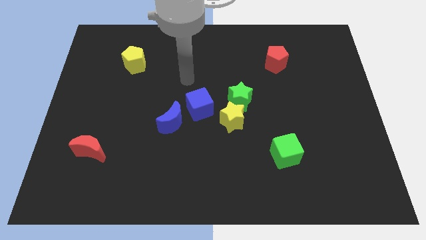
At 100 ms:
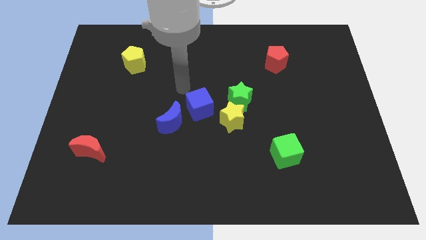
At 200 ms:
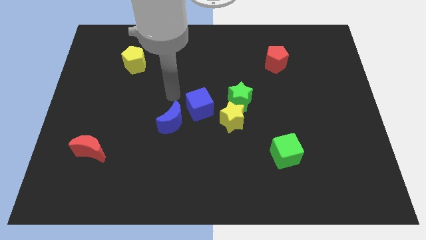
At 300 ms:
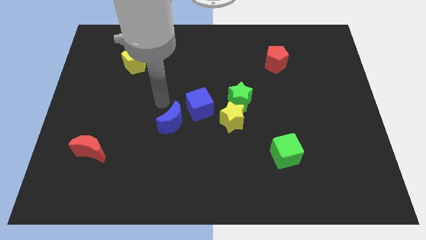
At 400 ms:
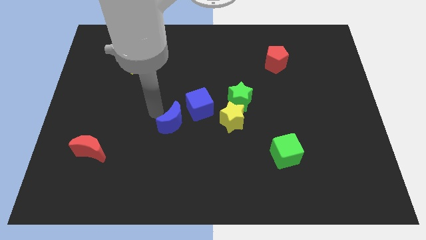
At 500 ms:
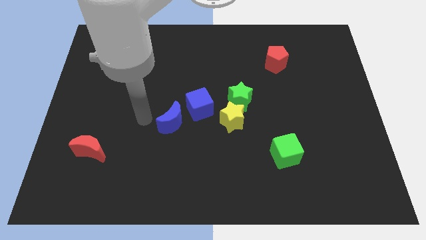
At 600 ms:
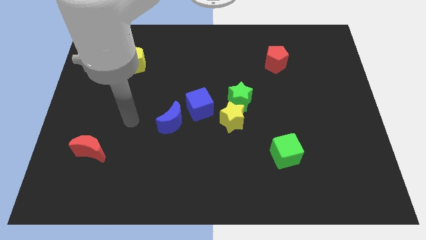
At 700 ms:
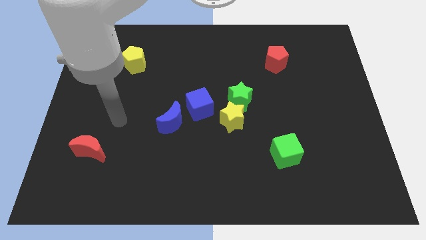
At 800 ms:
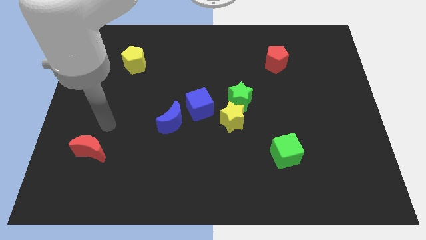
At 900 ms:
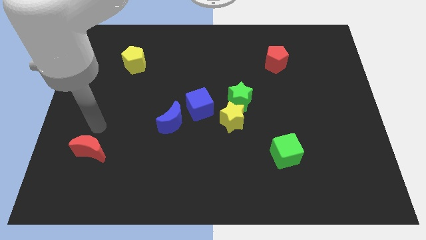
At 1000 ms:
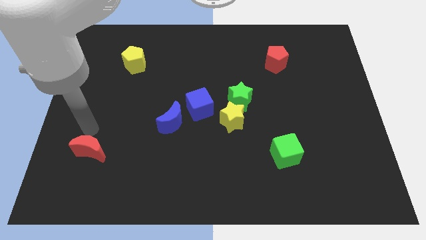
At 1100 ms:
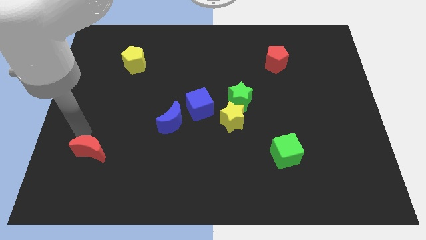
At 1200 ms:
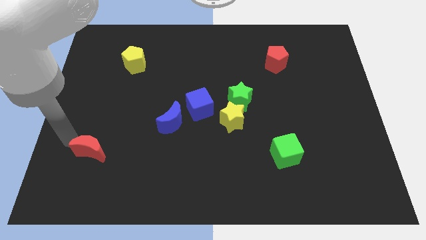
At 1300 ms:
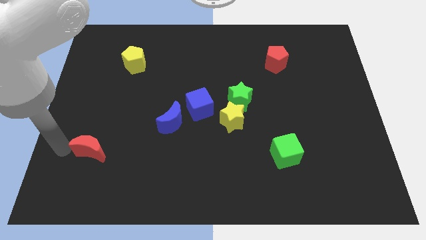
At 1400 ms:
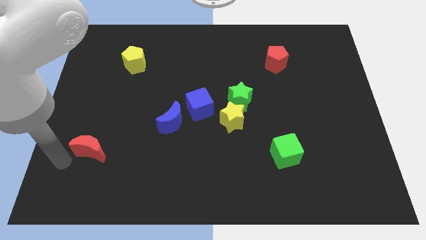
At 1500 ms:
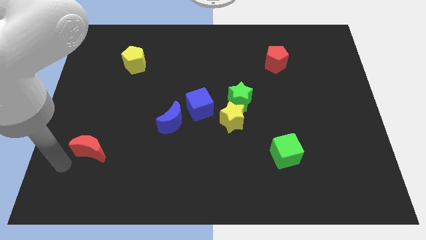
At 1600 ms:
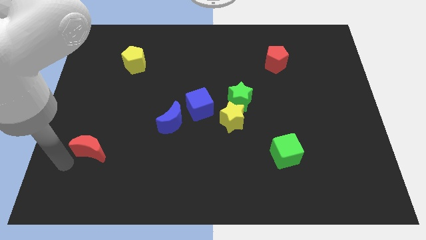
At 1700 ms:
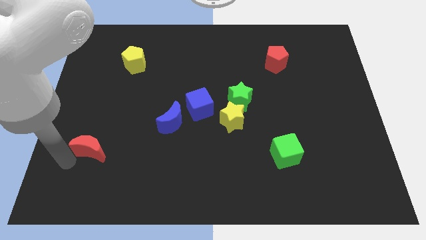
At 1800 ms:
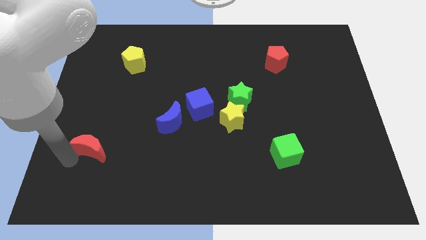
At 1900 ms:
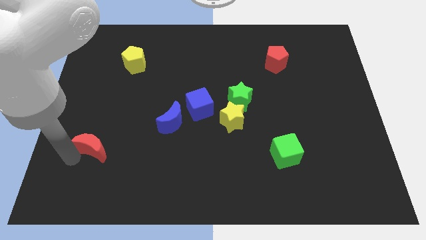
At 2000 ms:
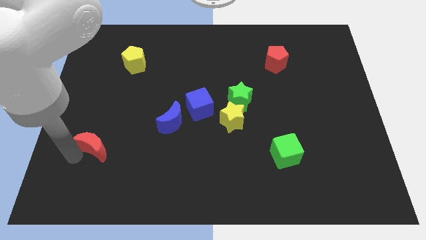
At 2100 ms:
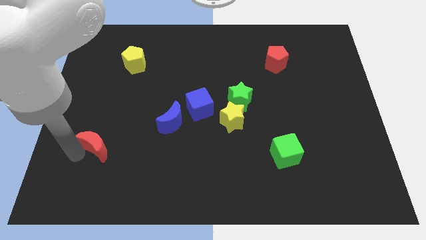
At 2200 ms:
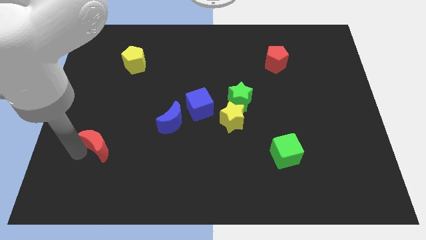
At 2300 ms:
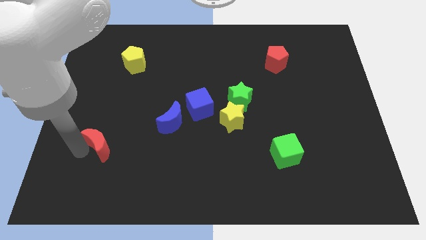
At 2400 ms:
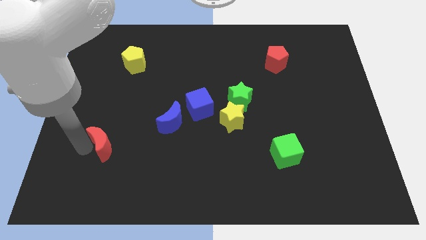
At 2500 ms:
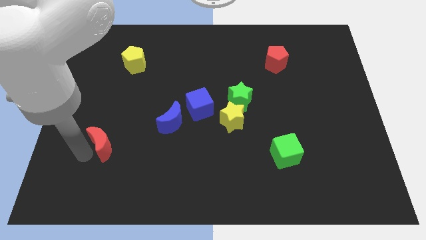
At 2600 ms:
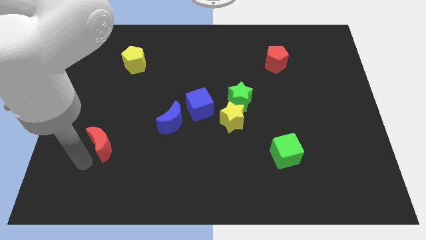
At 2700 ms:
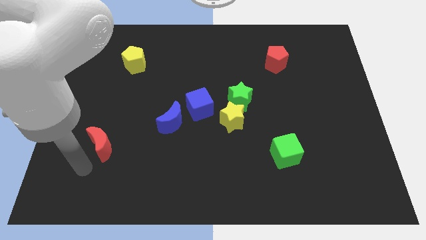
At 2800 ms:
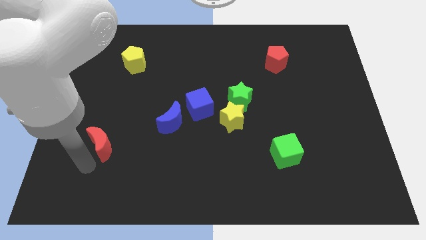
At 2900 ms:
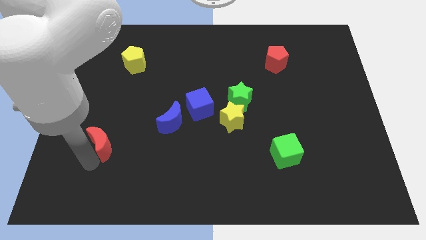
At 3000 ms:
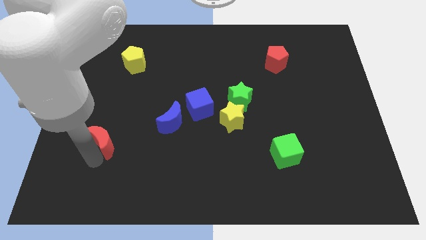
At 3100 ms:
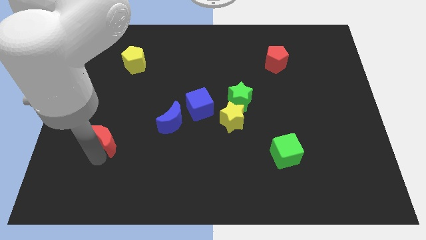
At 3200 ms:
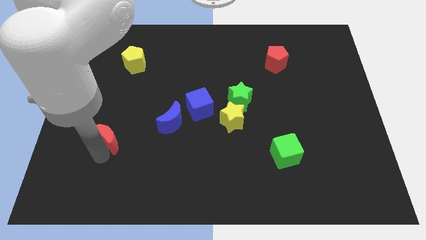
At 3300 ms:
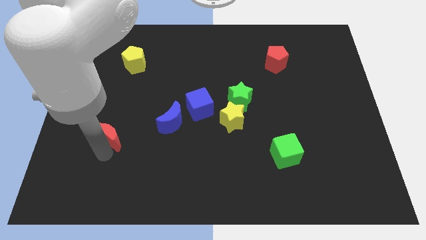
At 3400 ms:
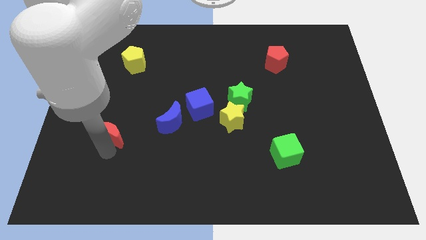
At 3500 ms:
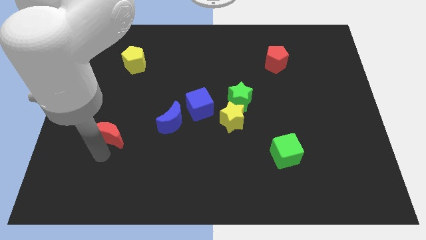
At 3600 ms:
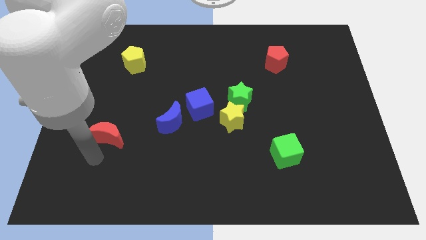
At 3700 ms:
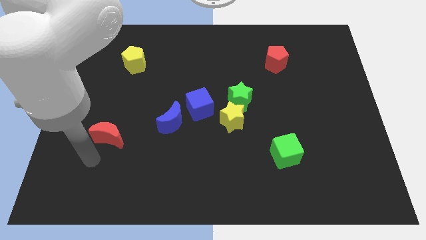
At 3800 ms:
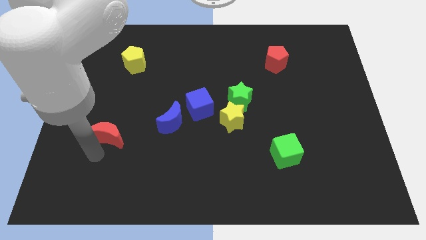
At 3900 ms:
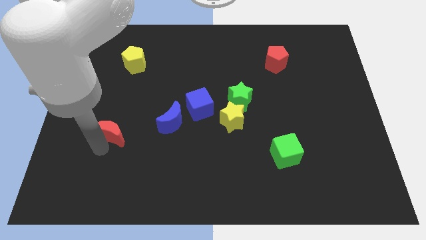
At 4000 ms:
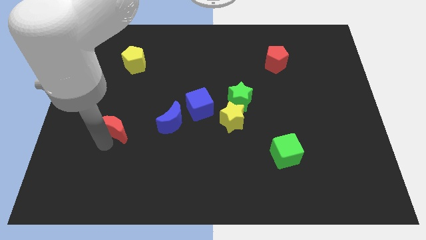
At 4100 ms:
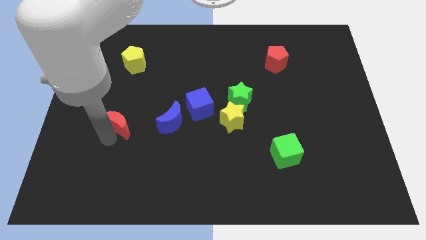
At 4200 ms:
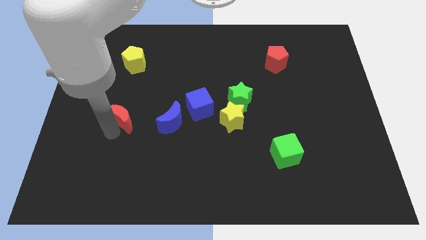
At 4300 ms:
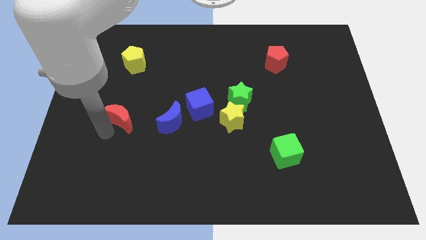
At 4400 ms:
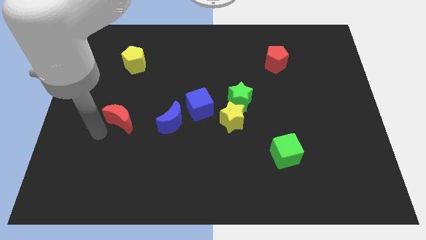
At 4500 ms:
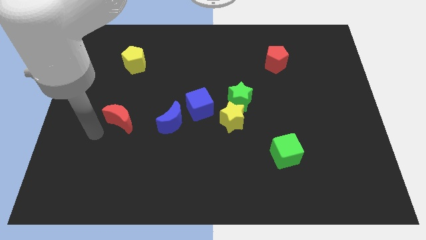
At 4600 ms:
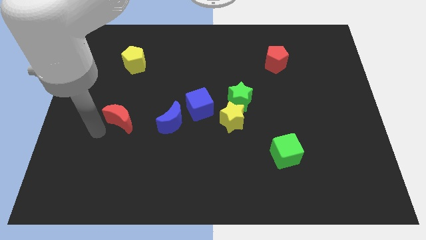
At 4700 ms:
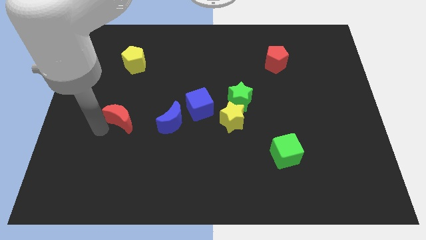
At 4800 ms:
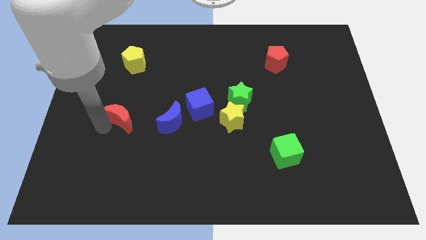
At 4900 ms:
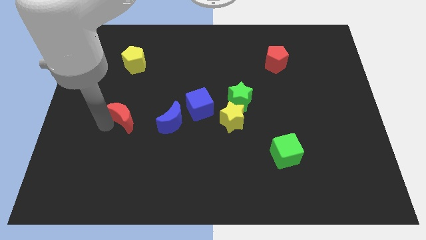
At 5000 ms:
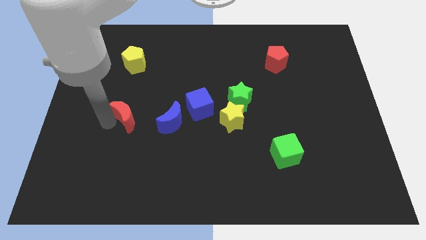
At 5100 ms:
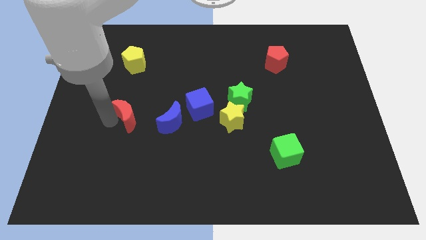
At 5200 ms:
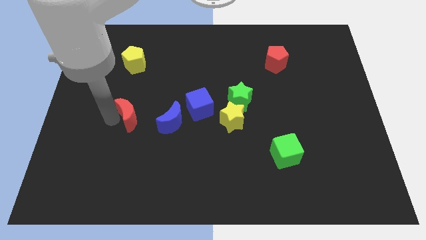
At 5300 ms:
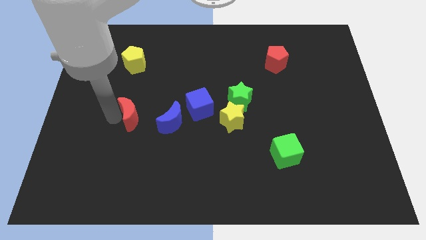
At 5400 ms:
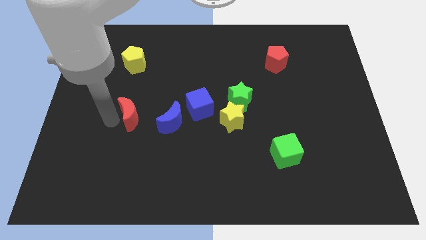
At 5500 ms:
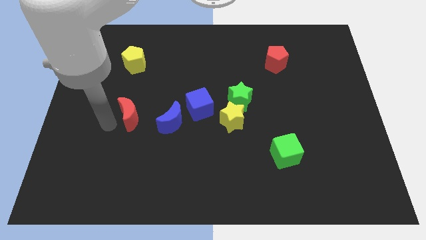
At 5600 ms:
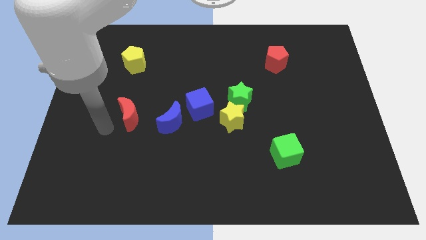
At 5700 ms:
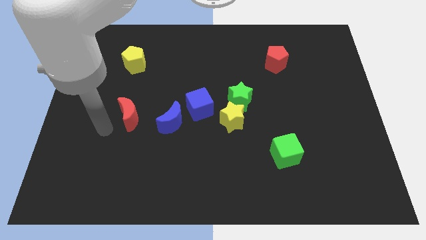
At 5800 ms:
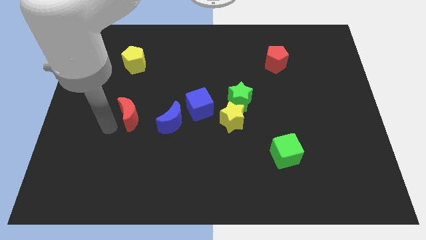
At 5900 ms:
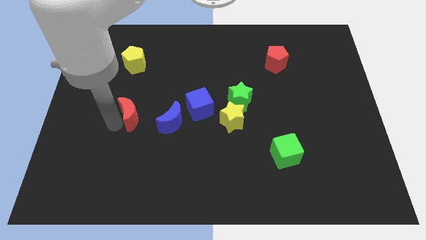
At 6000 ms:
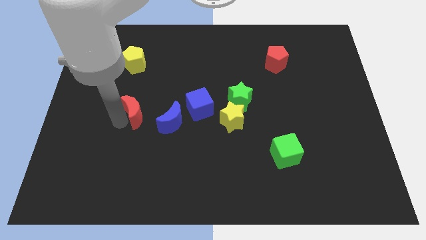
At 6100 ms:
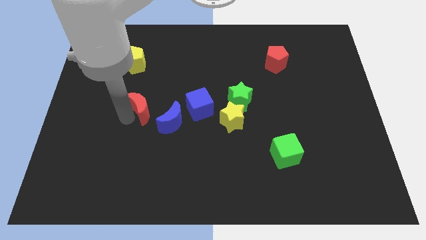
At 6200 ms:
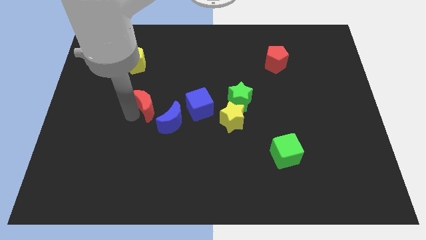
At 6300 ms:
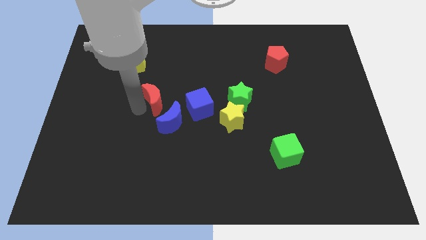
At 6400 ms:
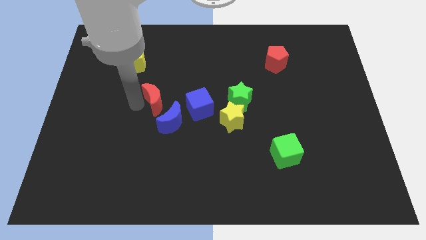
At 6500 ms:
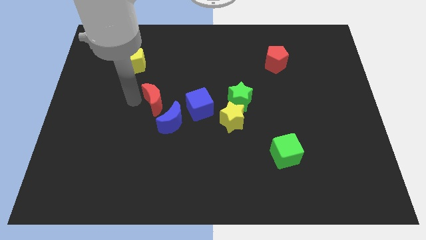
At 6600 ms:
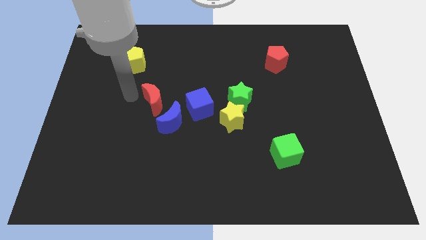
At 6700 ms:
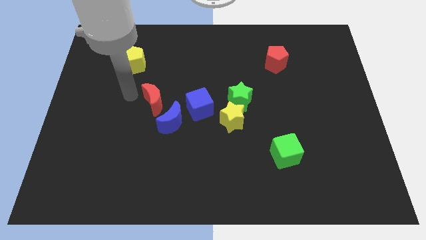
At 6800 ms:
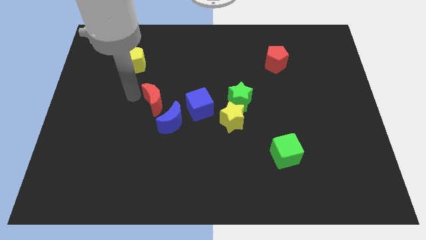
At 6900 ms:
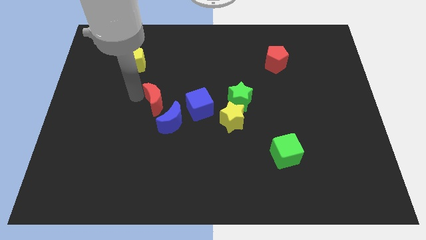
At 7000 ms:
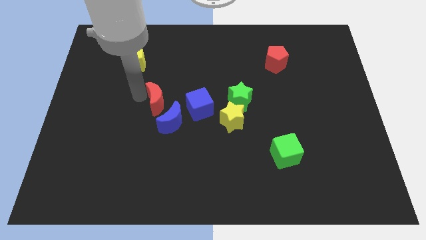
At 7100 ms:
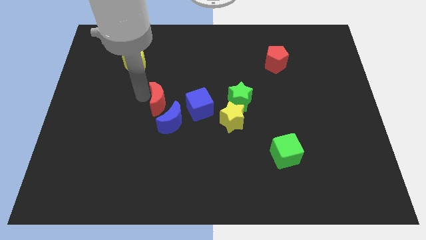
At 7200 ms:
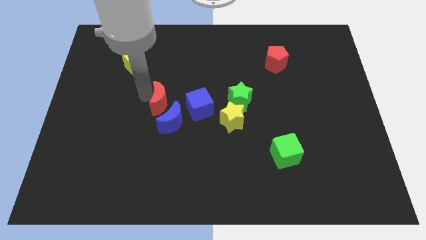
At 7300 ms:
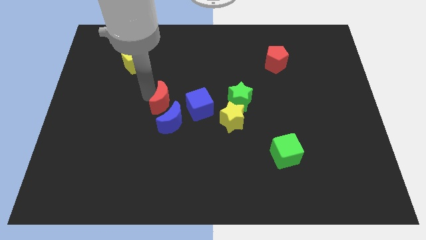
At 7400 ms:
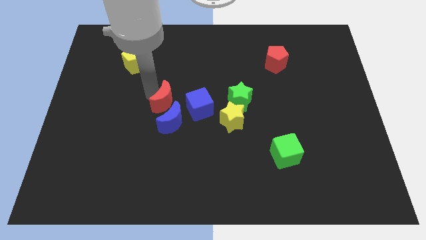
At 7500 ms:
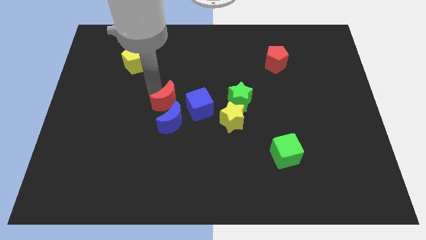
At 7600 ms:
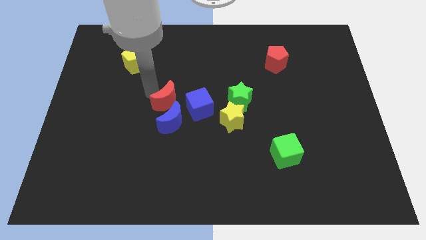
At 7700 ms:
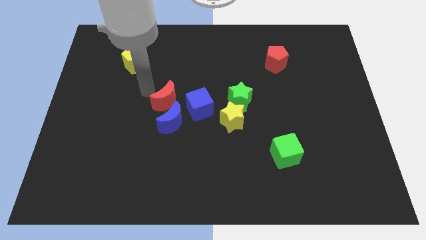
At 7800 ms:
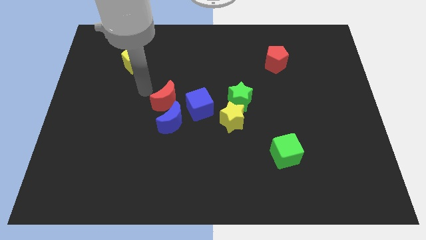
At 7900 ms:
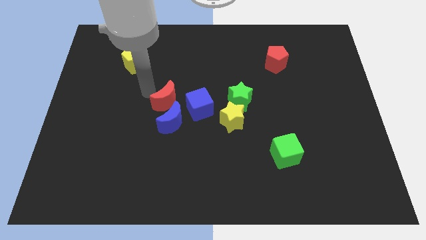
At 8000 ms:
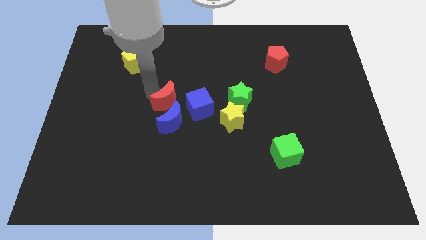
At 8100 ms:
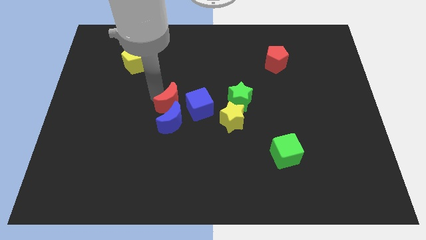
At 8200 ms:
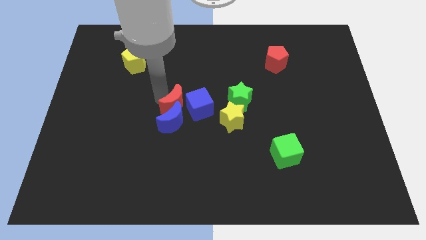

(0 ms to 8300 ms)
push the red moon towards the blue cube
